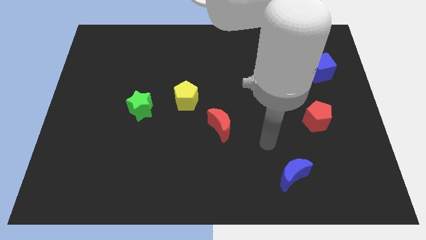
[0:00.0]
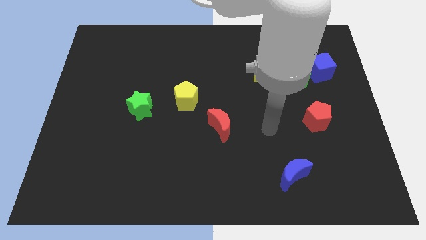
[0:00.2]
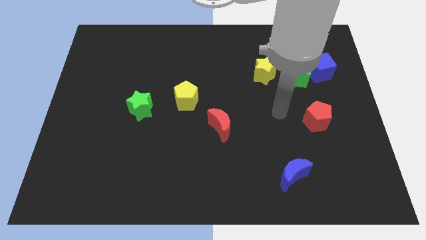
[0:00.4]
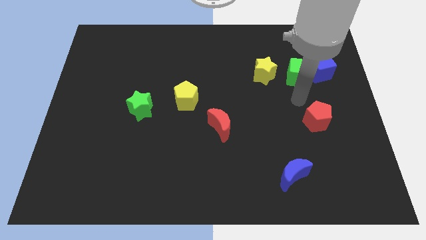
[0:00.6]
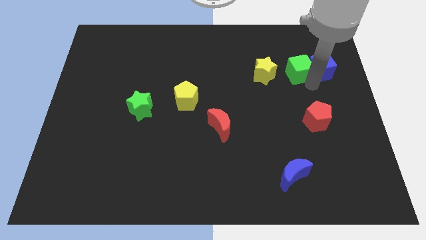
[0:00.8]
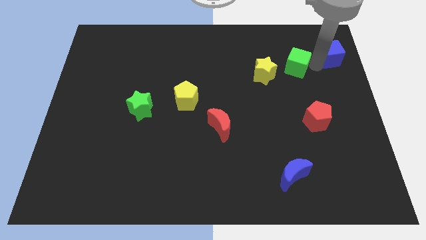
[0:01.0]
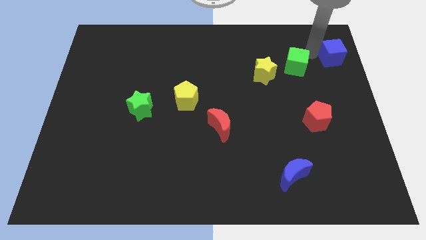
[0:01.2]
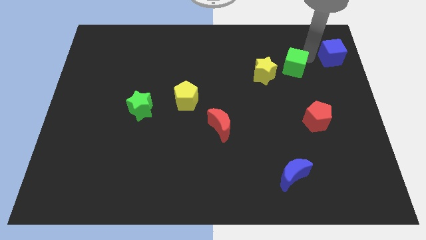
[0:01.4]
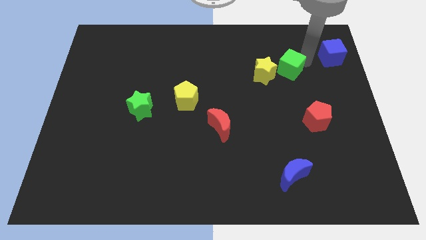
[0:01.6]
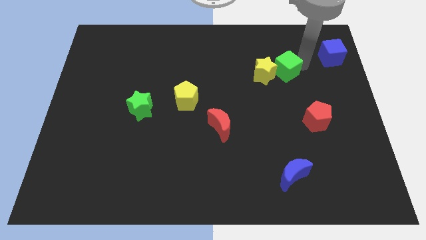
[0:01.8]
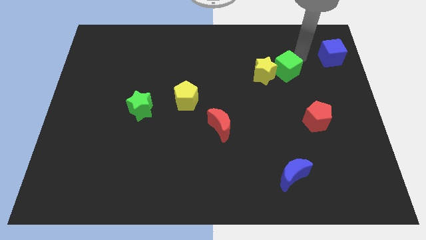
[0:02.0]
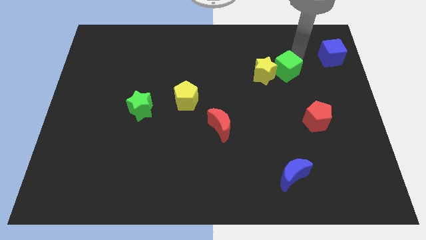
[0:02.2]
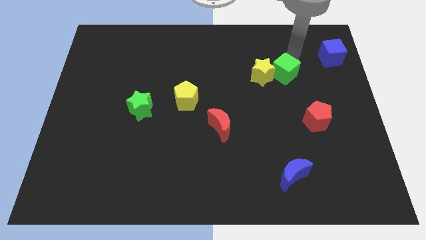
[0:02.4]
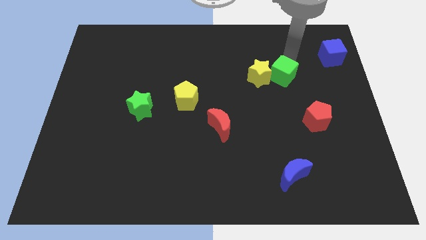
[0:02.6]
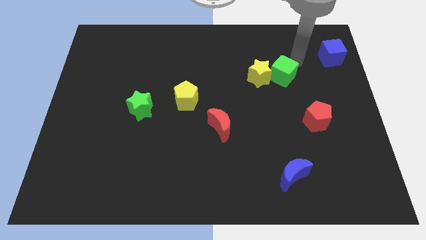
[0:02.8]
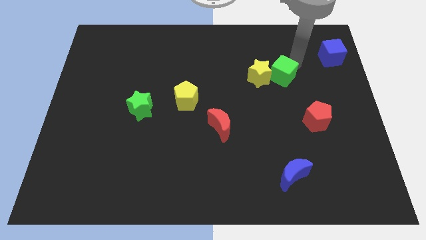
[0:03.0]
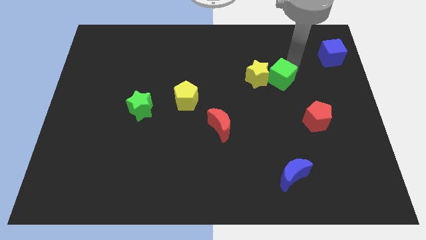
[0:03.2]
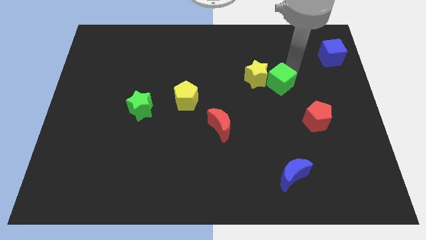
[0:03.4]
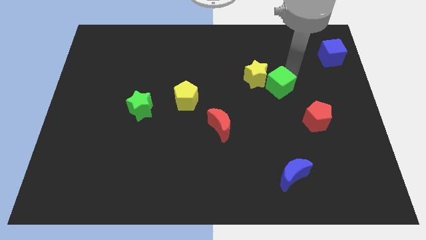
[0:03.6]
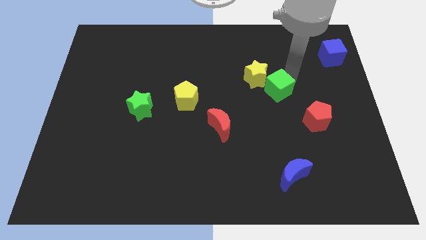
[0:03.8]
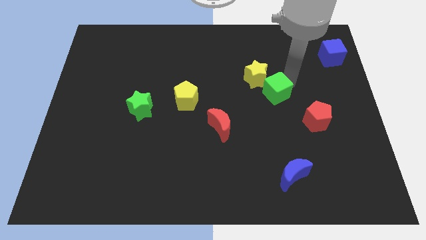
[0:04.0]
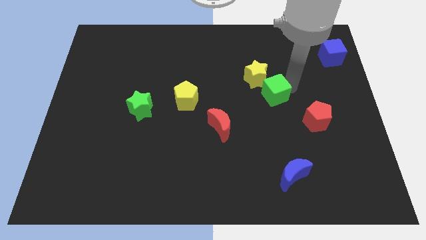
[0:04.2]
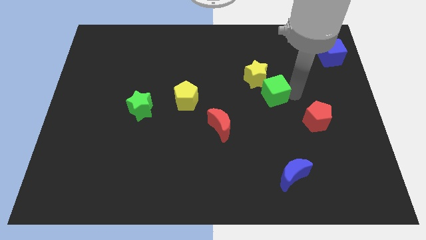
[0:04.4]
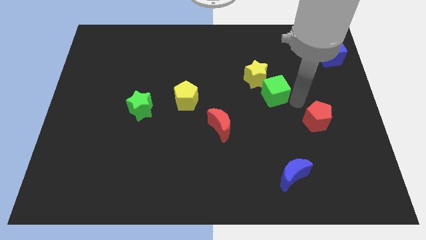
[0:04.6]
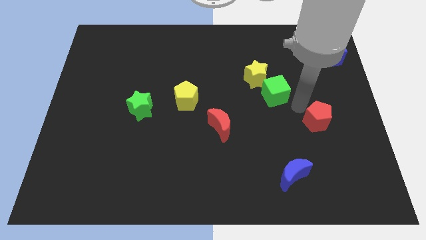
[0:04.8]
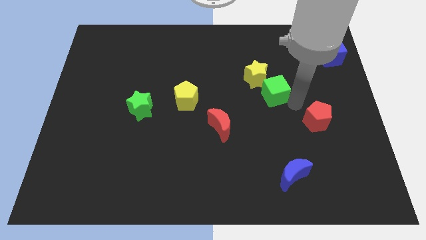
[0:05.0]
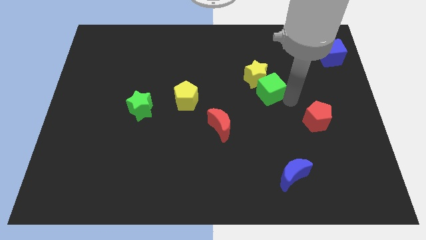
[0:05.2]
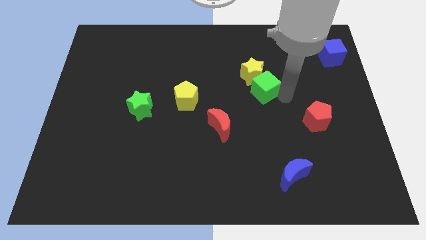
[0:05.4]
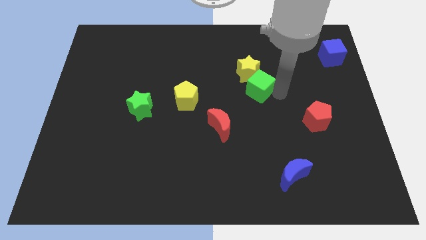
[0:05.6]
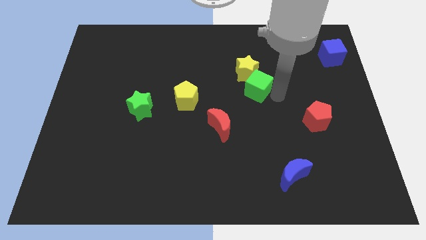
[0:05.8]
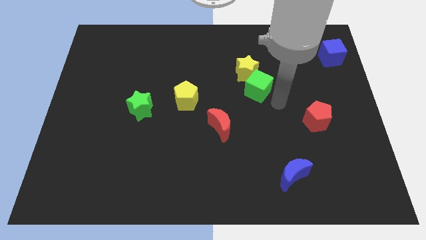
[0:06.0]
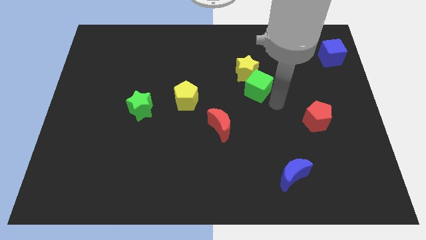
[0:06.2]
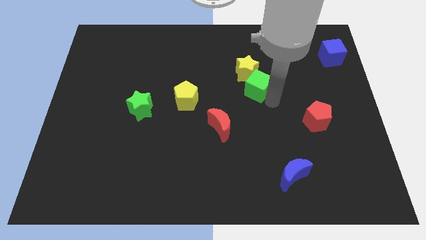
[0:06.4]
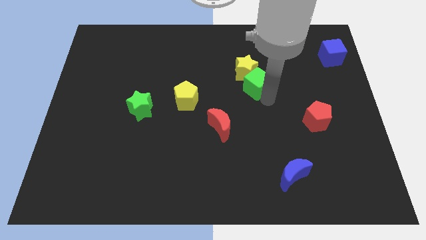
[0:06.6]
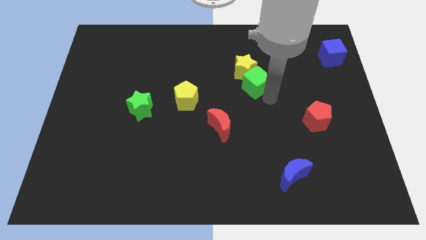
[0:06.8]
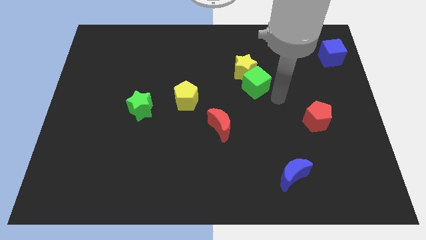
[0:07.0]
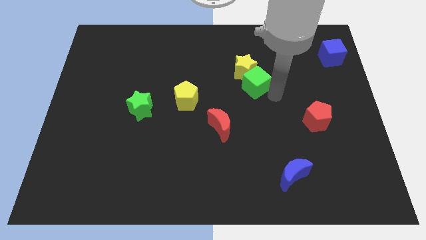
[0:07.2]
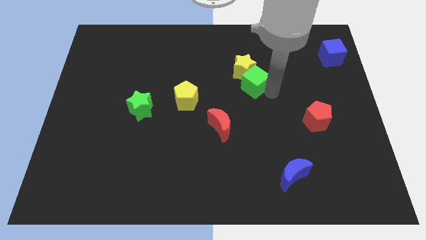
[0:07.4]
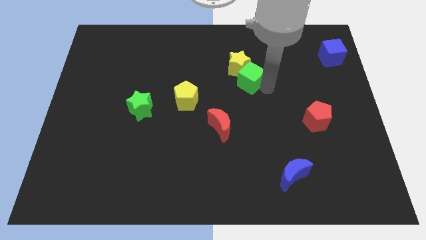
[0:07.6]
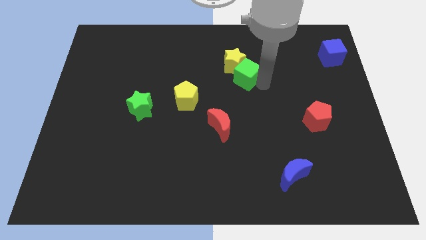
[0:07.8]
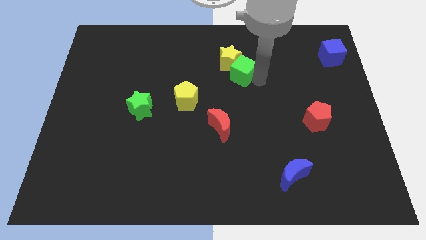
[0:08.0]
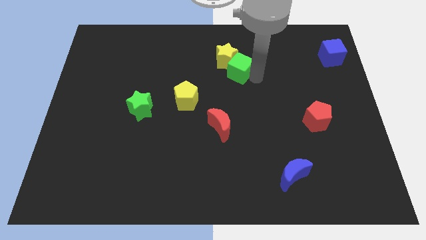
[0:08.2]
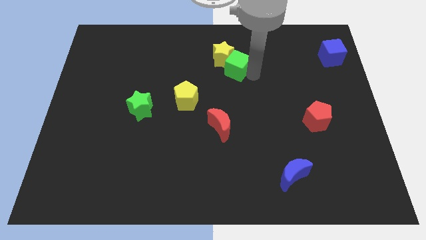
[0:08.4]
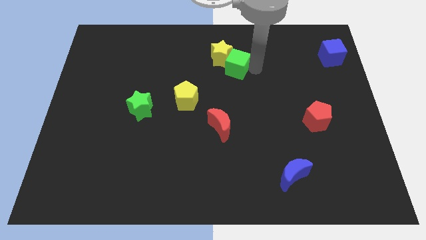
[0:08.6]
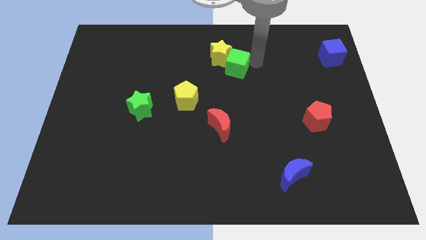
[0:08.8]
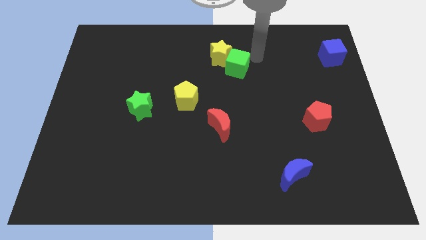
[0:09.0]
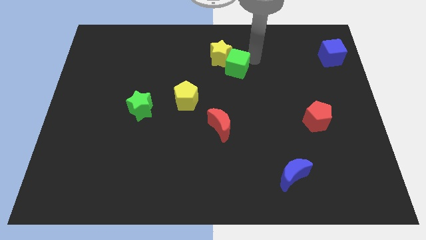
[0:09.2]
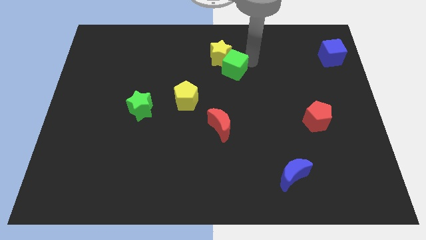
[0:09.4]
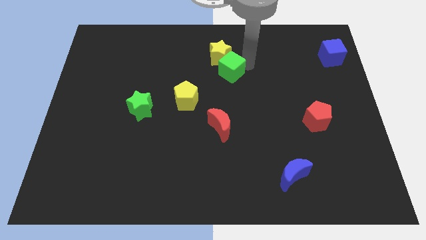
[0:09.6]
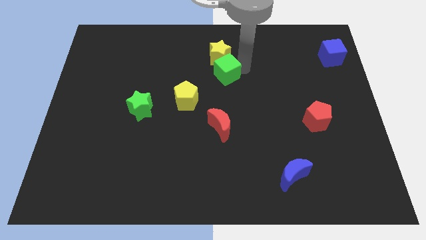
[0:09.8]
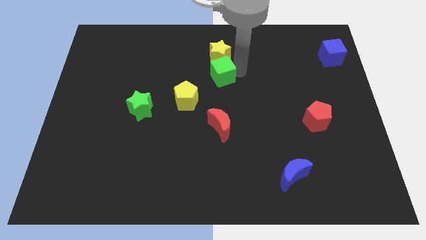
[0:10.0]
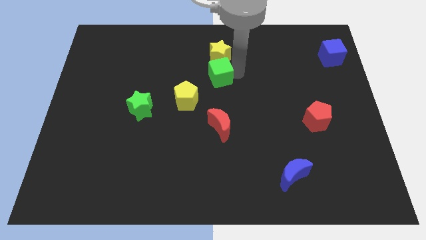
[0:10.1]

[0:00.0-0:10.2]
push the green cube to the left

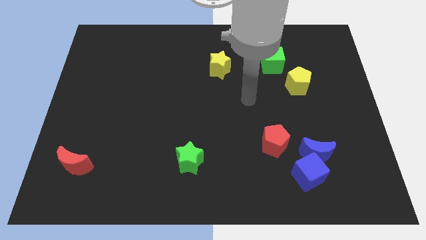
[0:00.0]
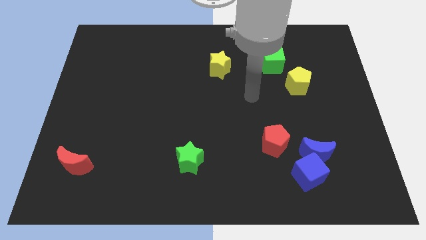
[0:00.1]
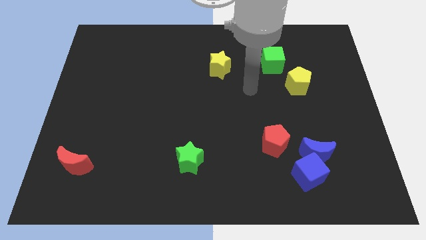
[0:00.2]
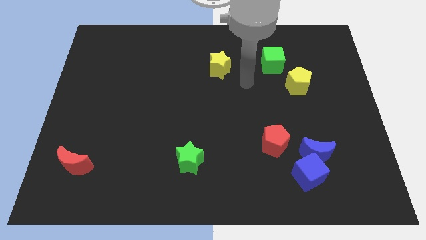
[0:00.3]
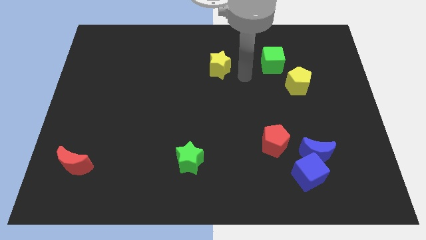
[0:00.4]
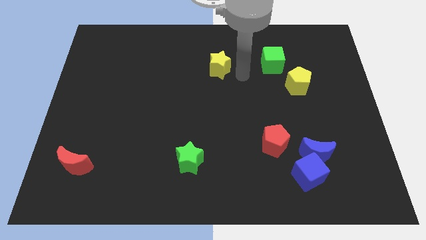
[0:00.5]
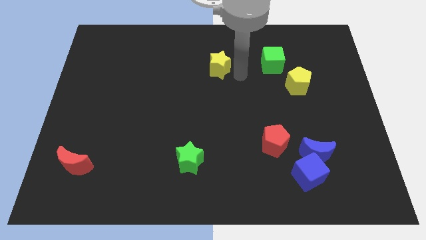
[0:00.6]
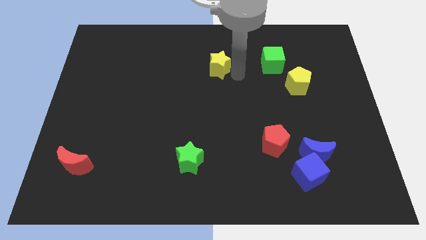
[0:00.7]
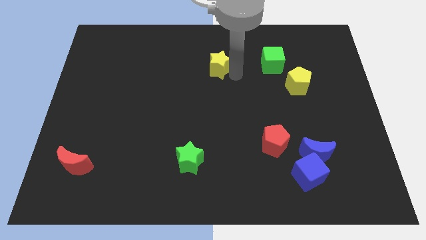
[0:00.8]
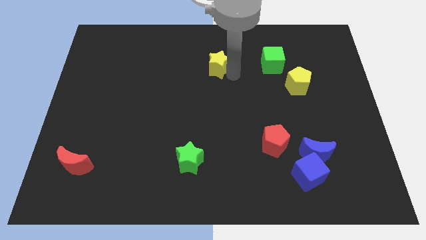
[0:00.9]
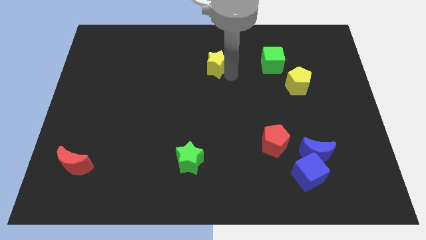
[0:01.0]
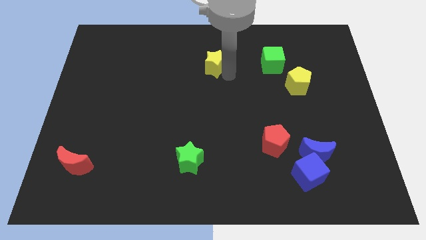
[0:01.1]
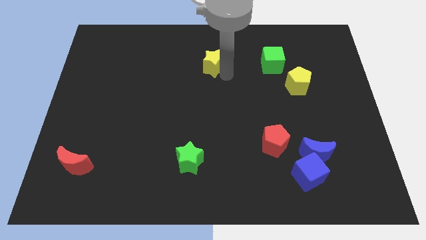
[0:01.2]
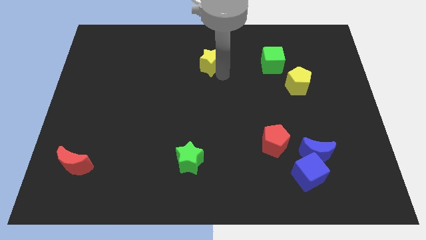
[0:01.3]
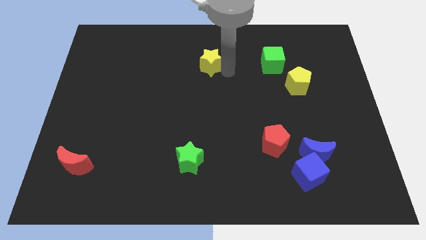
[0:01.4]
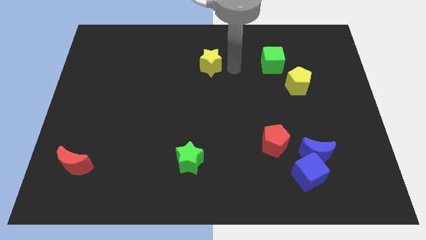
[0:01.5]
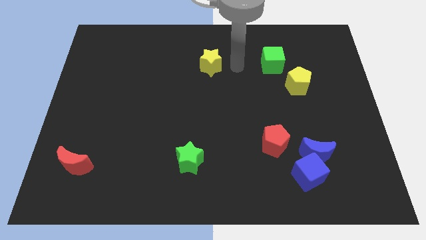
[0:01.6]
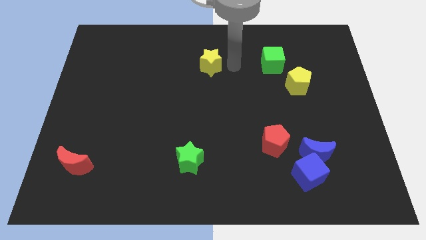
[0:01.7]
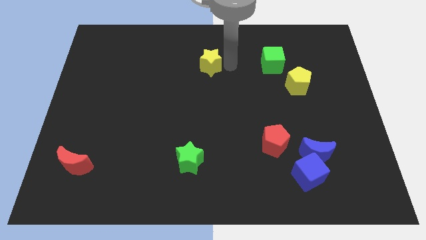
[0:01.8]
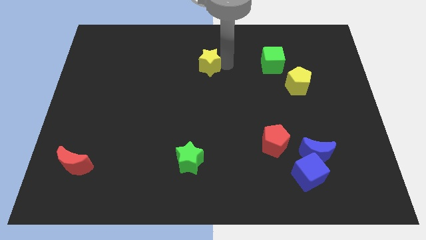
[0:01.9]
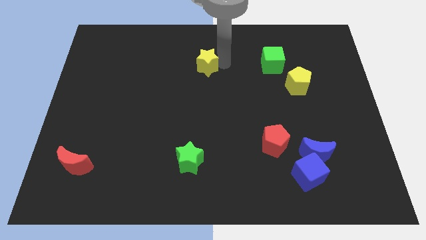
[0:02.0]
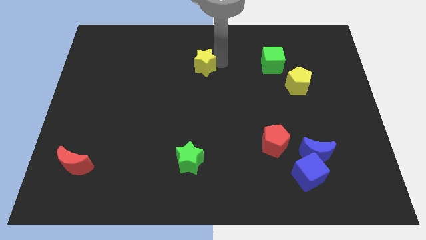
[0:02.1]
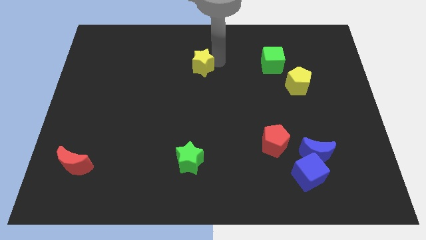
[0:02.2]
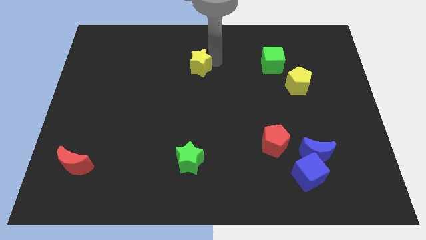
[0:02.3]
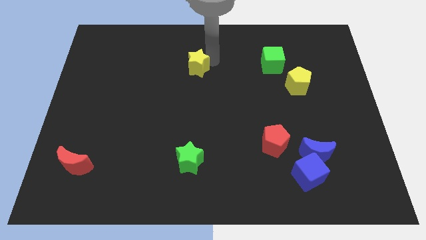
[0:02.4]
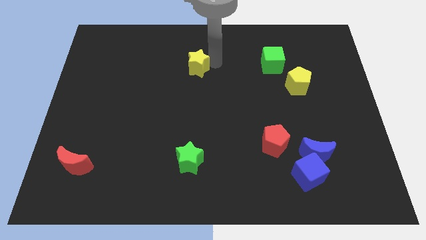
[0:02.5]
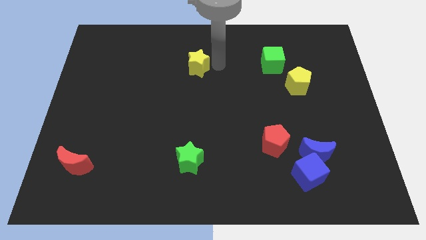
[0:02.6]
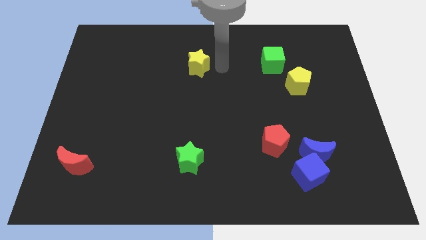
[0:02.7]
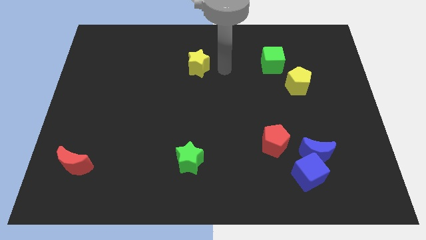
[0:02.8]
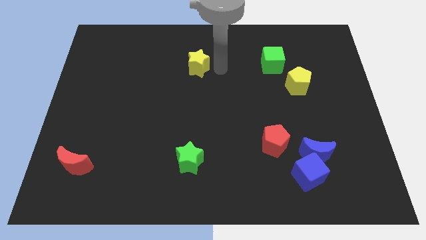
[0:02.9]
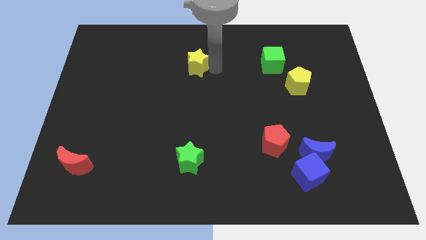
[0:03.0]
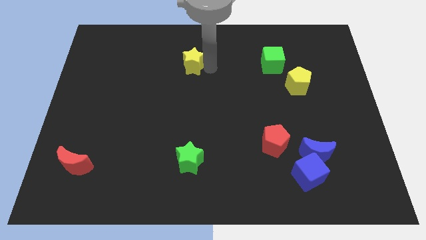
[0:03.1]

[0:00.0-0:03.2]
slightly push the yellow star to the left
